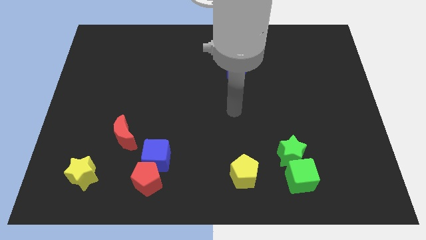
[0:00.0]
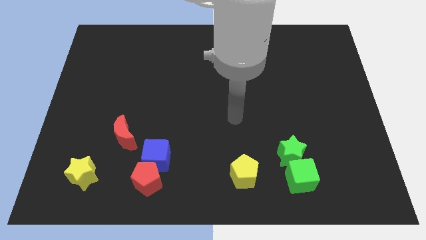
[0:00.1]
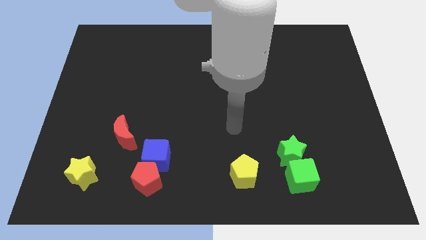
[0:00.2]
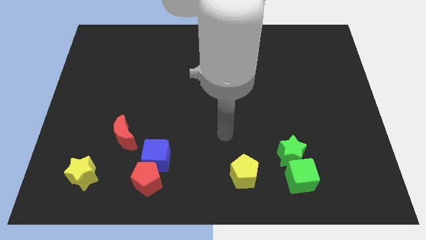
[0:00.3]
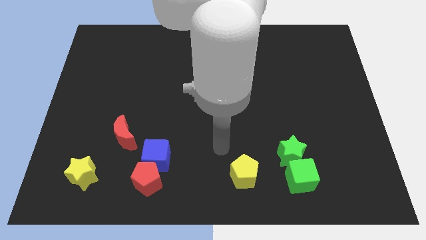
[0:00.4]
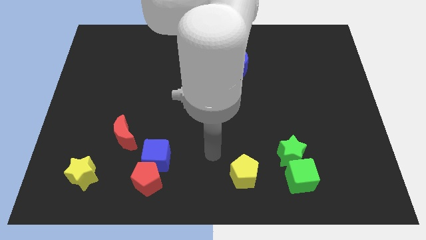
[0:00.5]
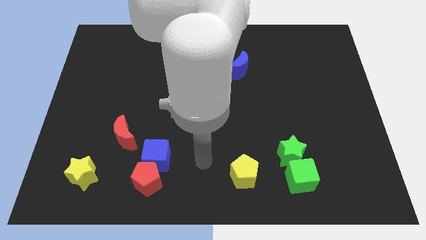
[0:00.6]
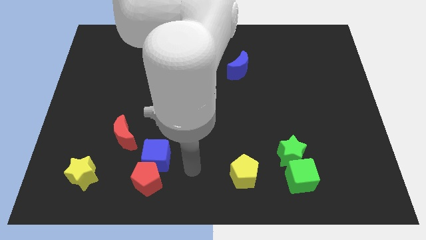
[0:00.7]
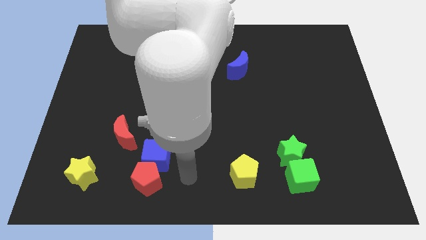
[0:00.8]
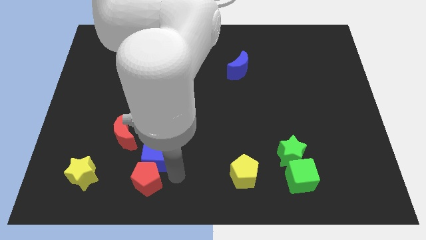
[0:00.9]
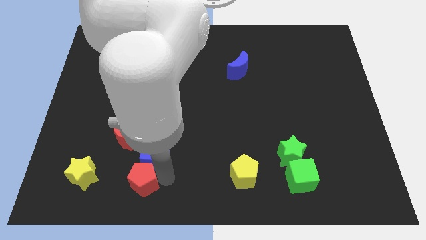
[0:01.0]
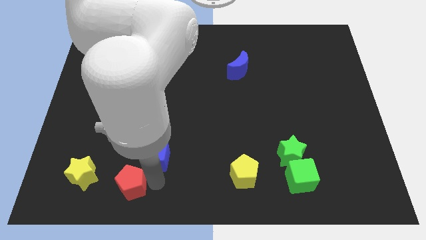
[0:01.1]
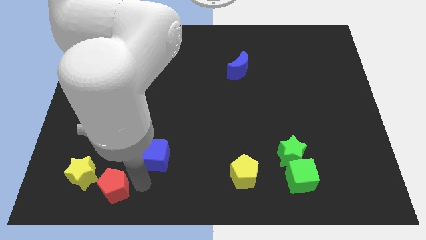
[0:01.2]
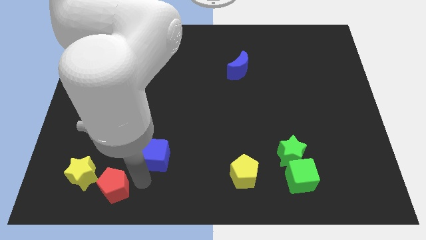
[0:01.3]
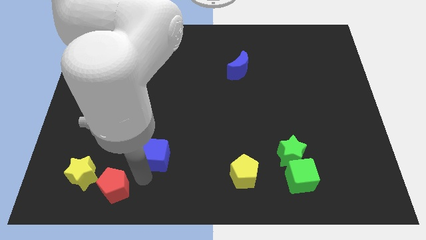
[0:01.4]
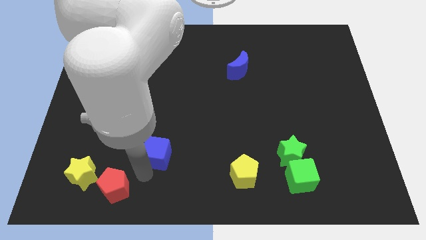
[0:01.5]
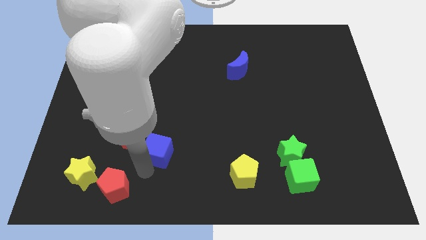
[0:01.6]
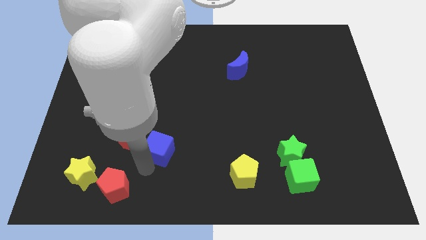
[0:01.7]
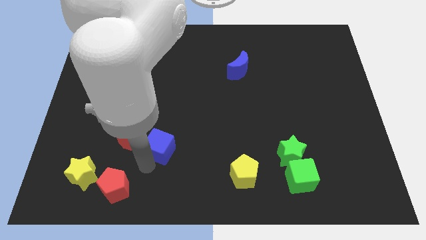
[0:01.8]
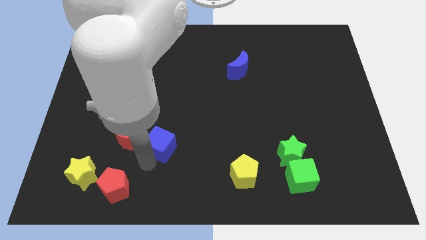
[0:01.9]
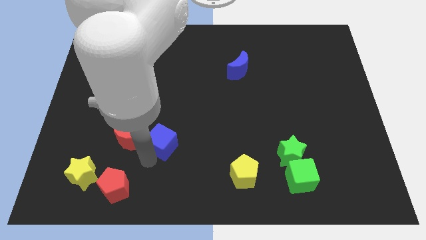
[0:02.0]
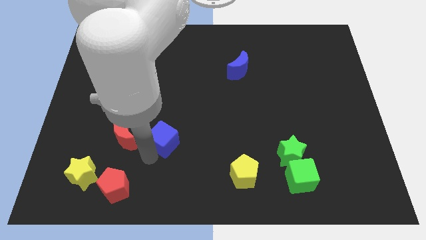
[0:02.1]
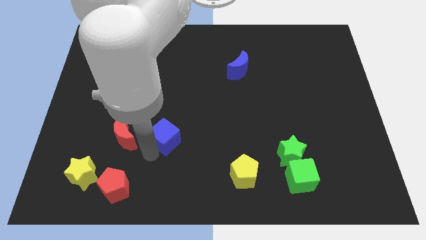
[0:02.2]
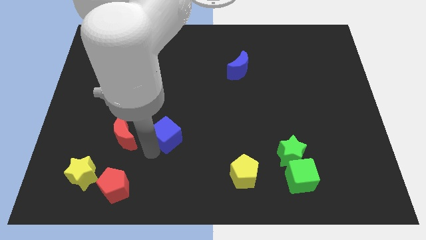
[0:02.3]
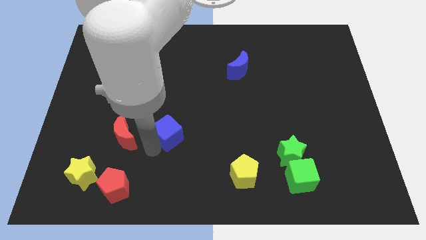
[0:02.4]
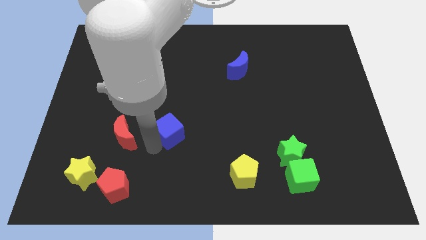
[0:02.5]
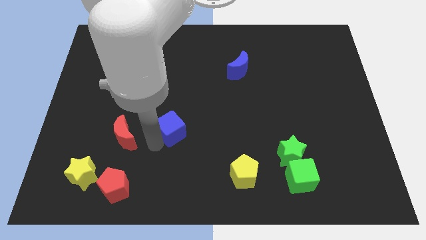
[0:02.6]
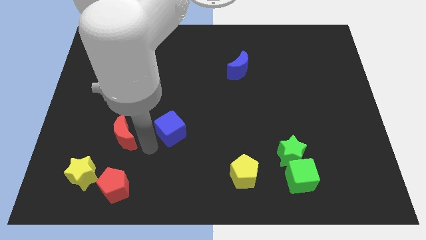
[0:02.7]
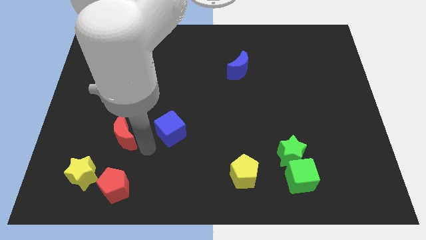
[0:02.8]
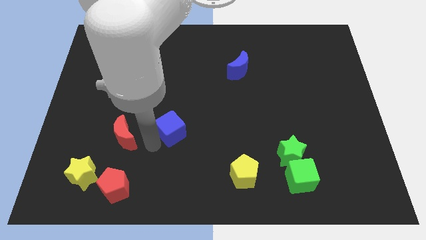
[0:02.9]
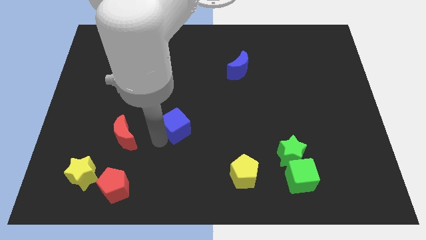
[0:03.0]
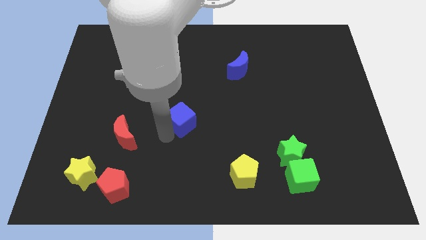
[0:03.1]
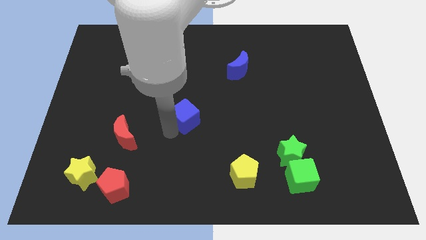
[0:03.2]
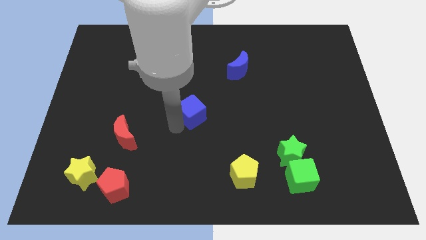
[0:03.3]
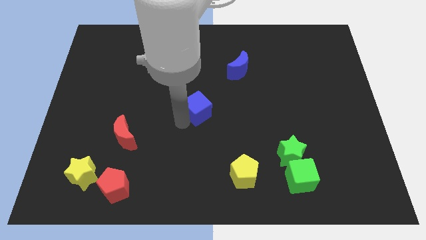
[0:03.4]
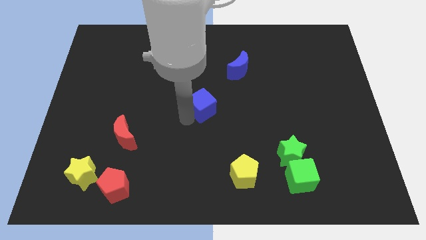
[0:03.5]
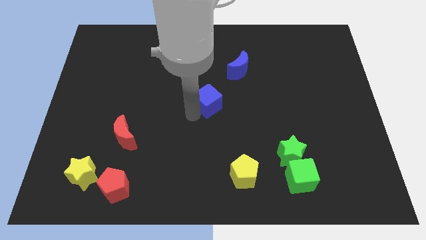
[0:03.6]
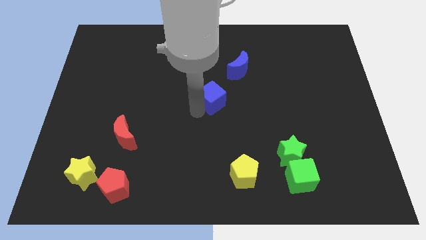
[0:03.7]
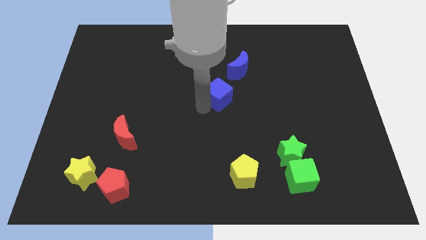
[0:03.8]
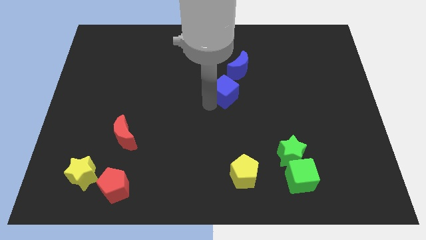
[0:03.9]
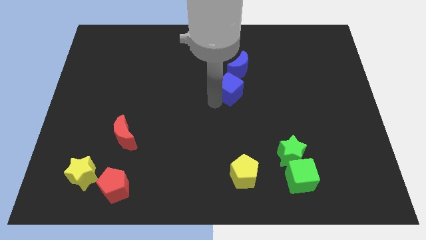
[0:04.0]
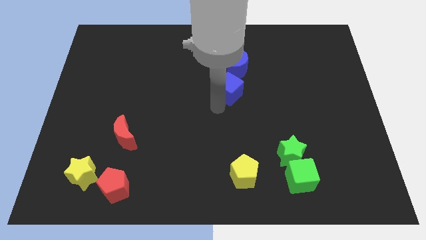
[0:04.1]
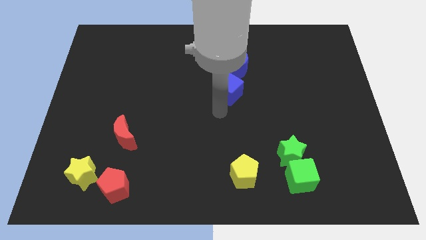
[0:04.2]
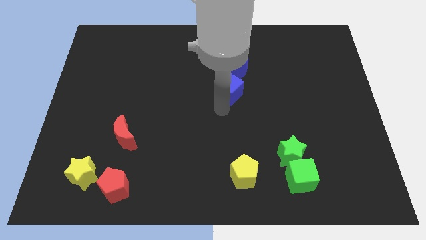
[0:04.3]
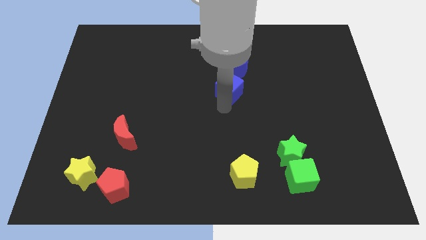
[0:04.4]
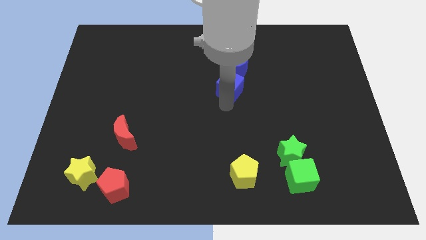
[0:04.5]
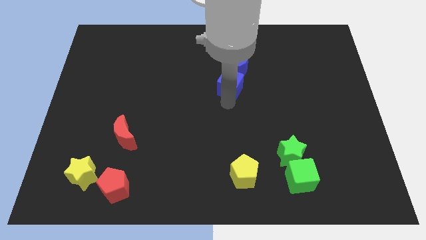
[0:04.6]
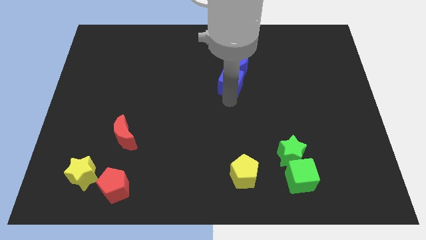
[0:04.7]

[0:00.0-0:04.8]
push the blue cube close to the blue moon

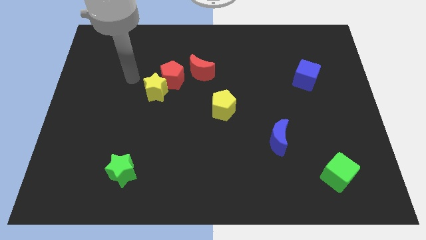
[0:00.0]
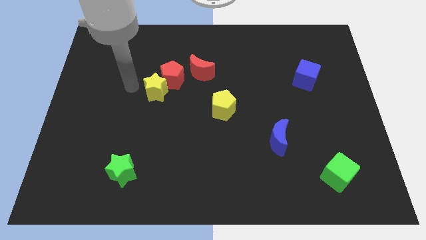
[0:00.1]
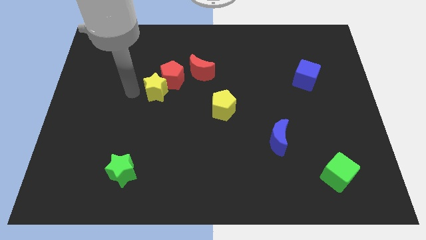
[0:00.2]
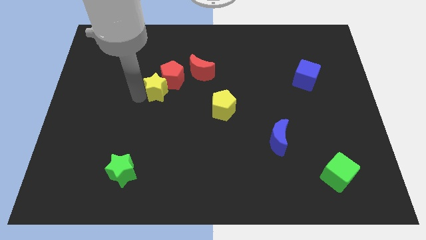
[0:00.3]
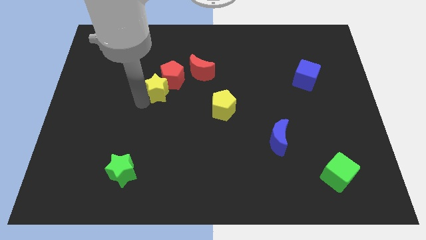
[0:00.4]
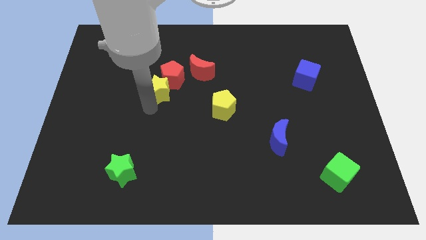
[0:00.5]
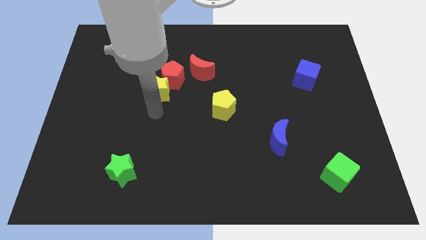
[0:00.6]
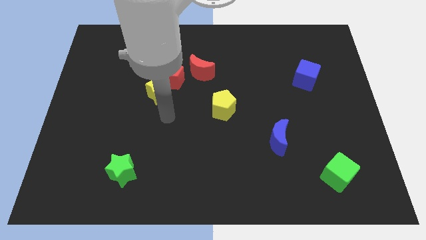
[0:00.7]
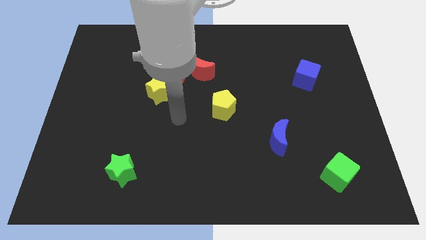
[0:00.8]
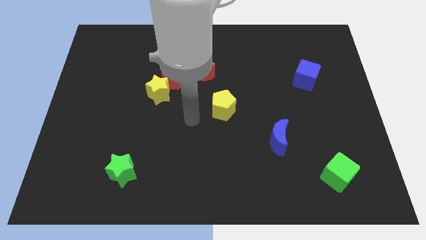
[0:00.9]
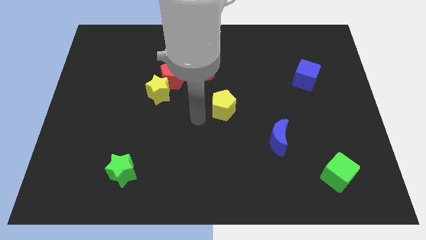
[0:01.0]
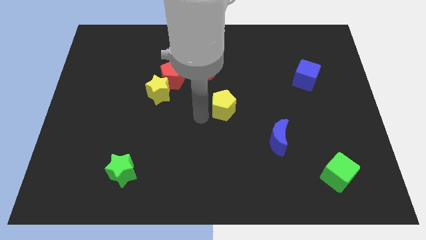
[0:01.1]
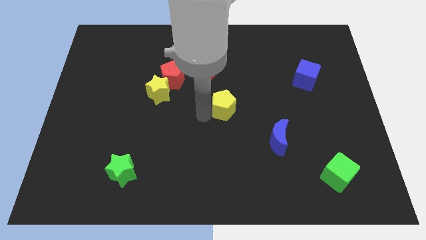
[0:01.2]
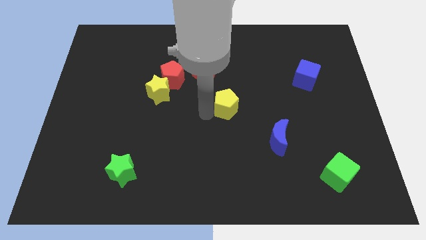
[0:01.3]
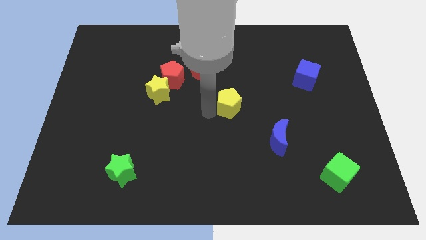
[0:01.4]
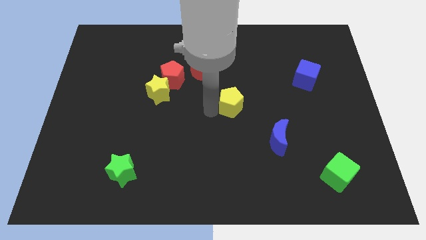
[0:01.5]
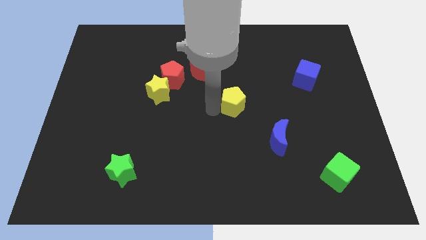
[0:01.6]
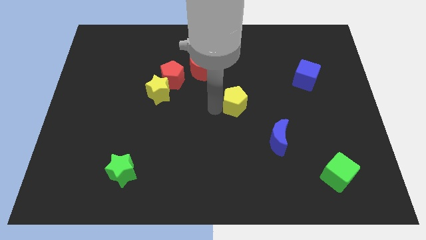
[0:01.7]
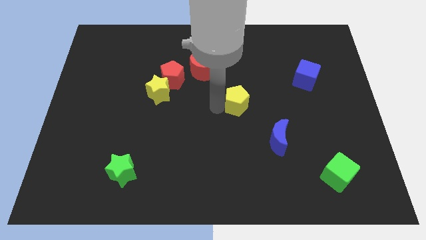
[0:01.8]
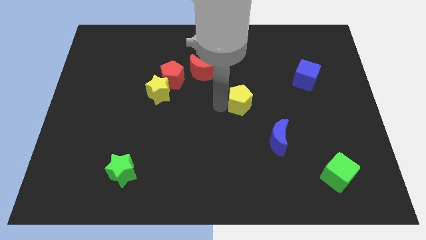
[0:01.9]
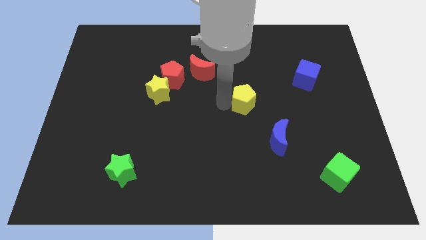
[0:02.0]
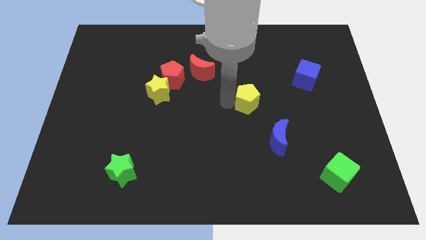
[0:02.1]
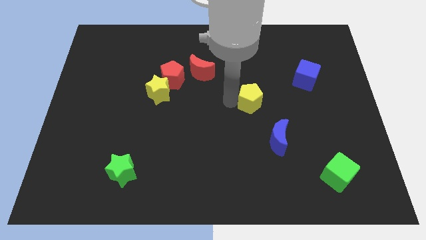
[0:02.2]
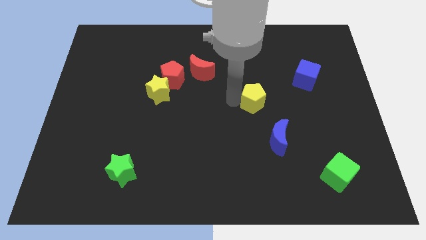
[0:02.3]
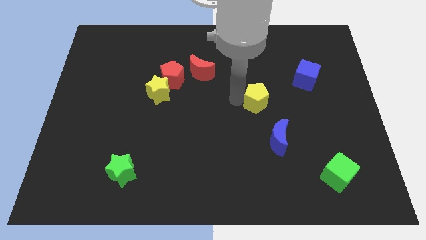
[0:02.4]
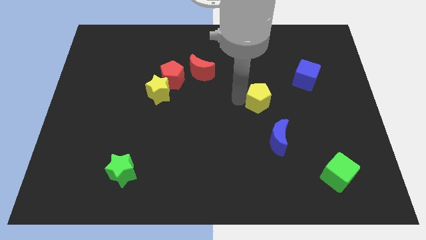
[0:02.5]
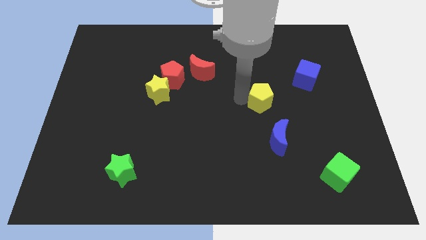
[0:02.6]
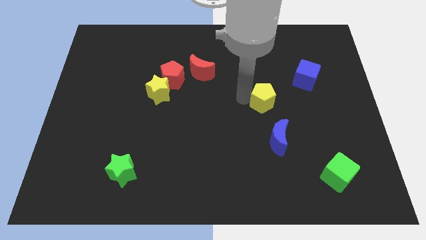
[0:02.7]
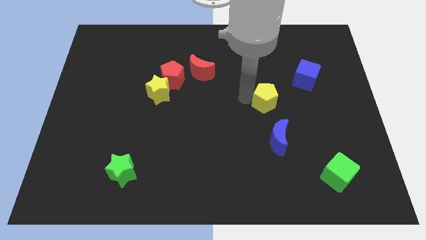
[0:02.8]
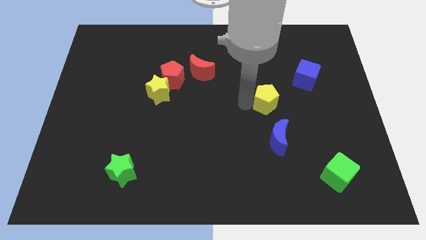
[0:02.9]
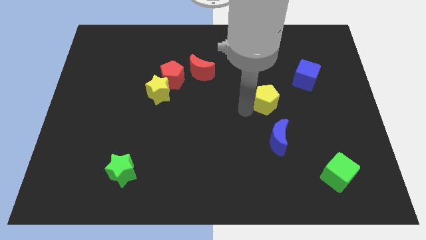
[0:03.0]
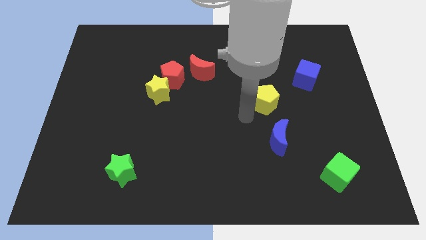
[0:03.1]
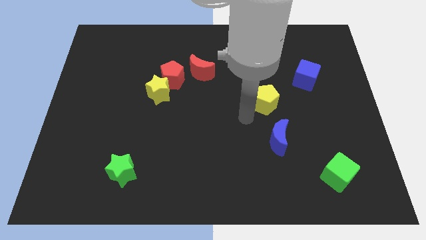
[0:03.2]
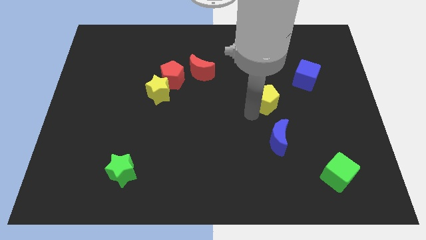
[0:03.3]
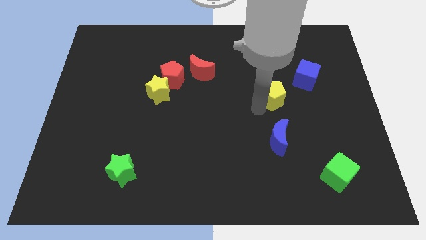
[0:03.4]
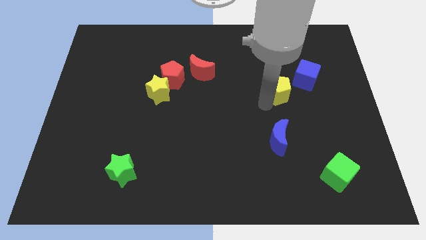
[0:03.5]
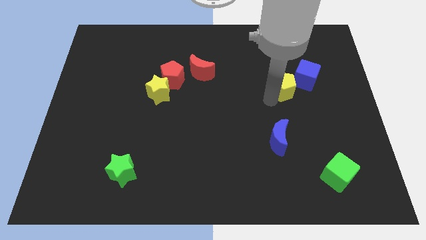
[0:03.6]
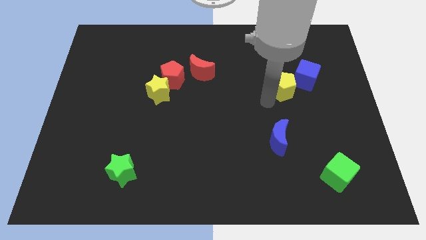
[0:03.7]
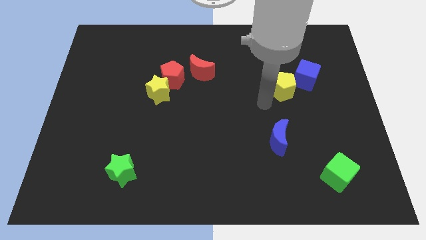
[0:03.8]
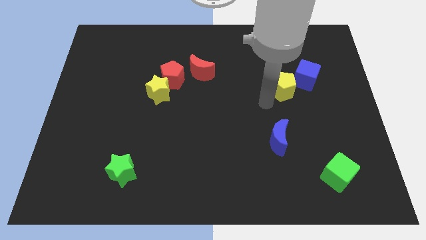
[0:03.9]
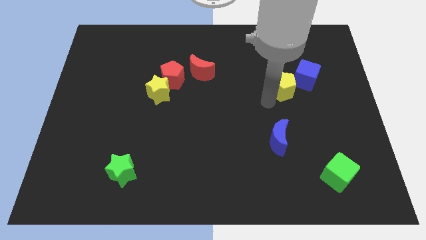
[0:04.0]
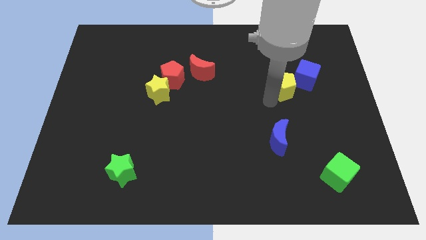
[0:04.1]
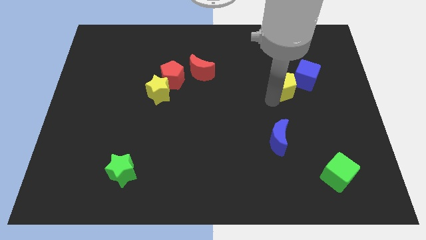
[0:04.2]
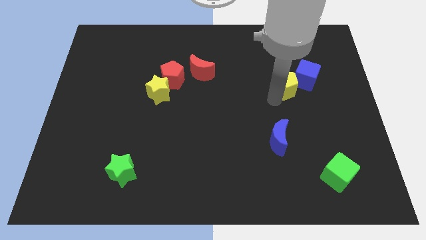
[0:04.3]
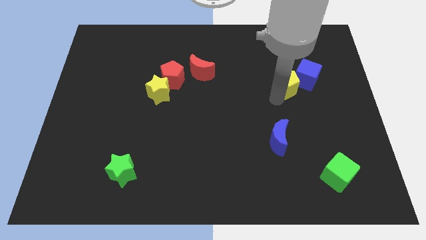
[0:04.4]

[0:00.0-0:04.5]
push the yellow pentagon towards the blue cube
